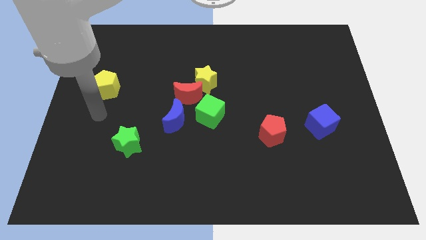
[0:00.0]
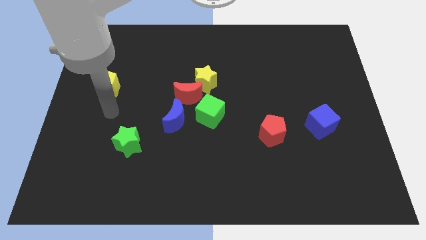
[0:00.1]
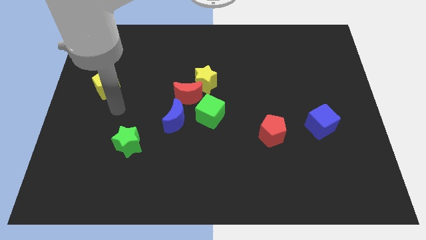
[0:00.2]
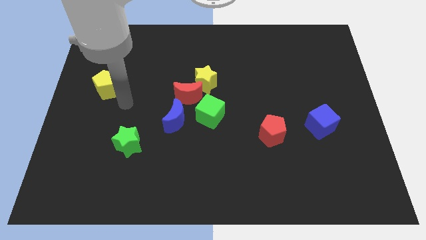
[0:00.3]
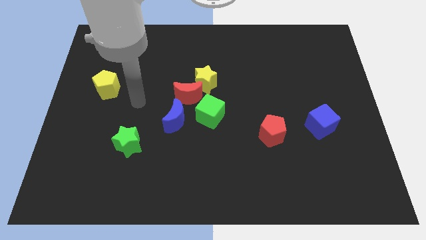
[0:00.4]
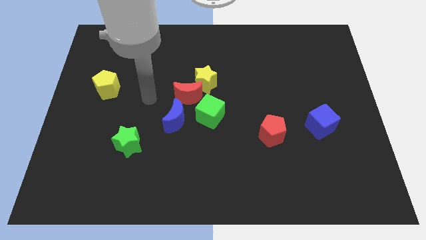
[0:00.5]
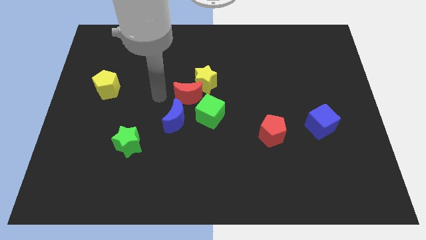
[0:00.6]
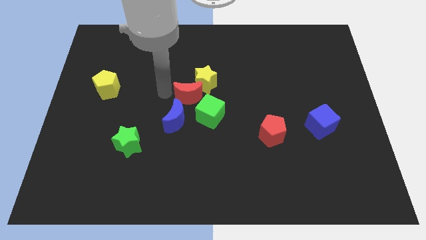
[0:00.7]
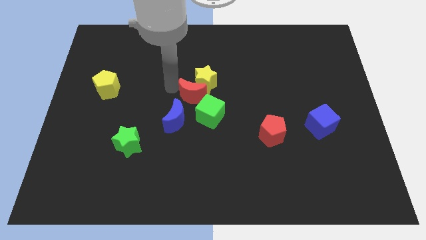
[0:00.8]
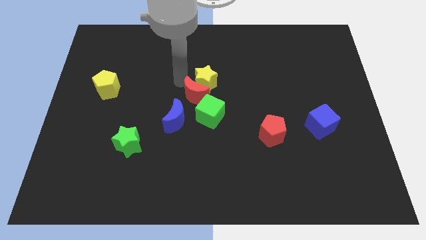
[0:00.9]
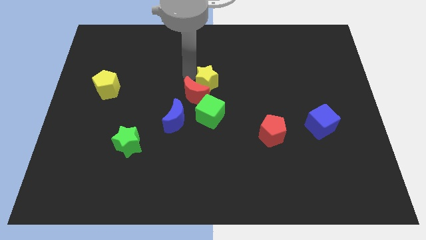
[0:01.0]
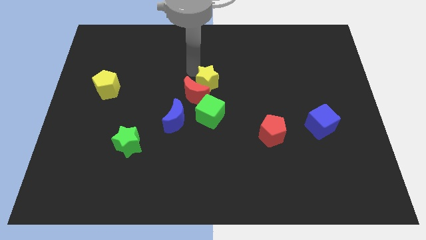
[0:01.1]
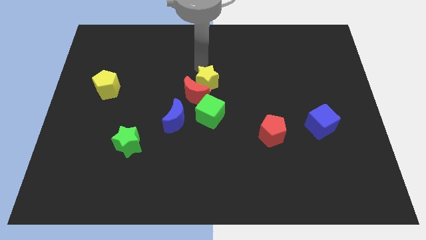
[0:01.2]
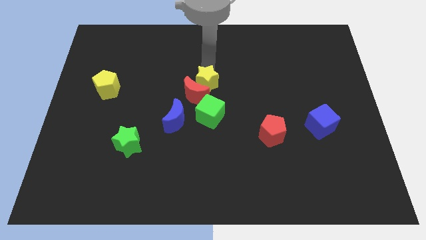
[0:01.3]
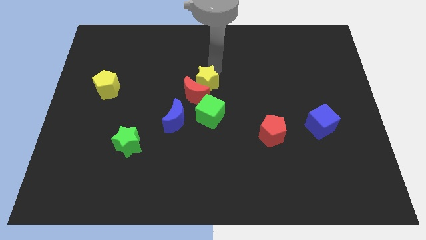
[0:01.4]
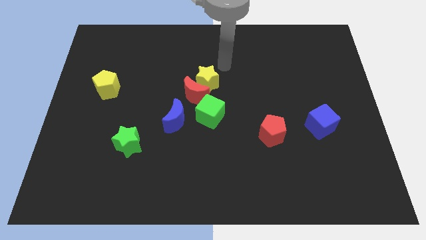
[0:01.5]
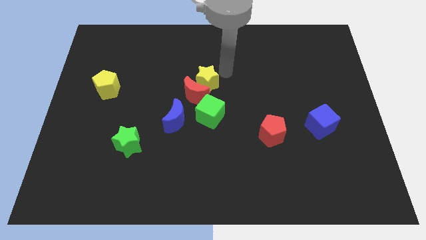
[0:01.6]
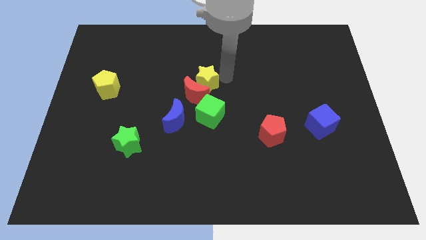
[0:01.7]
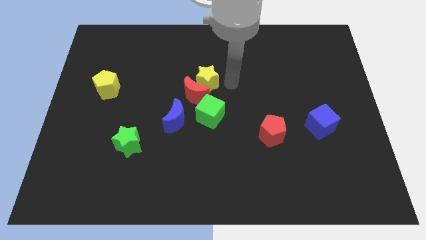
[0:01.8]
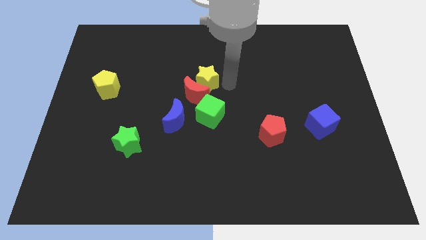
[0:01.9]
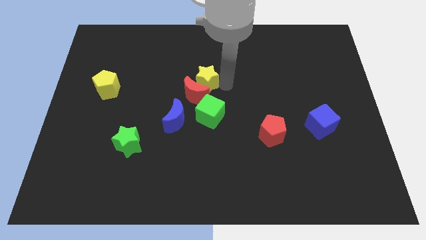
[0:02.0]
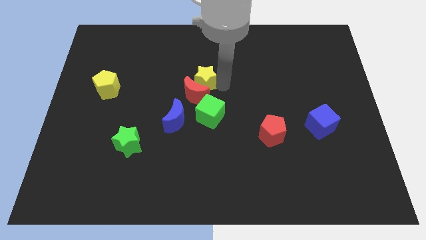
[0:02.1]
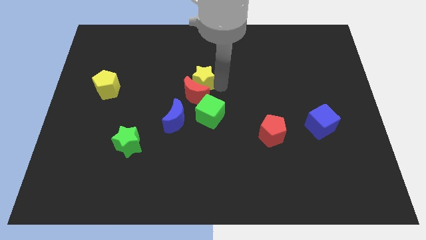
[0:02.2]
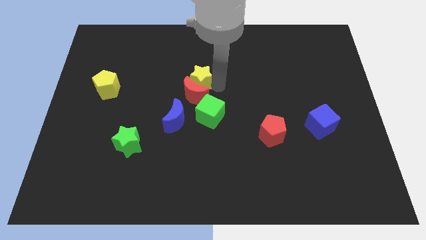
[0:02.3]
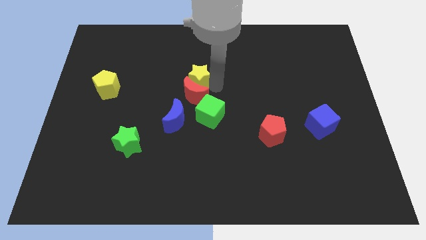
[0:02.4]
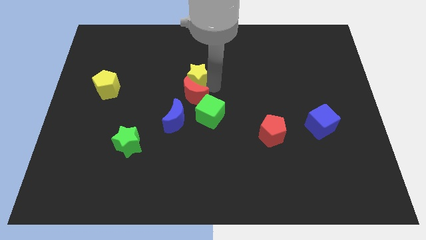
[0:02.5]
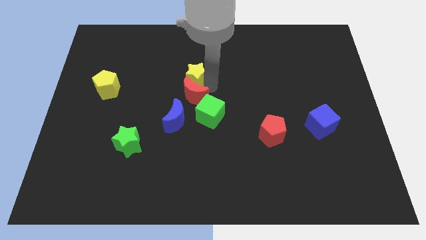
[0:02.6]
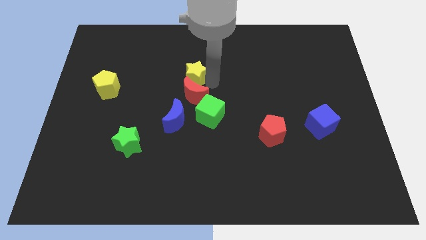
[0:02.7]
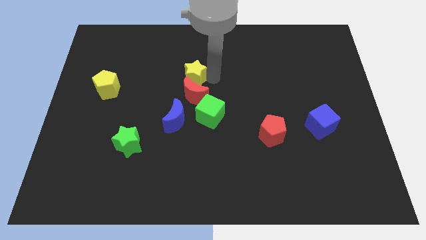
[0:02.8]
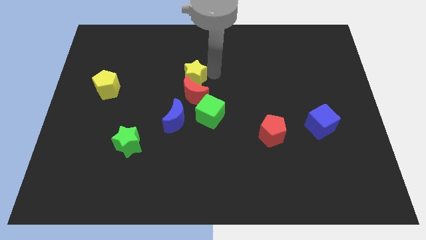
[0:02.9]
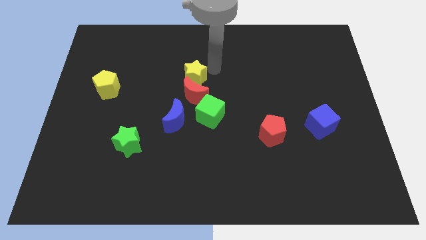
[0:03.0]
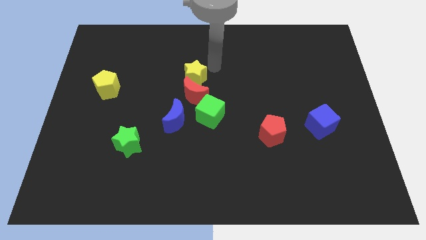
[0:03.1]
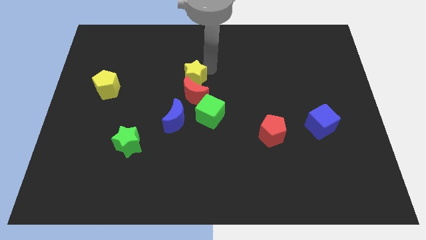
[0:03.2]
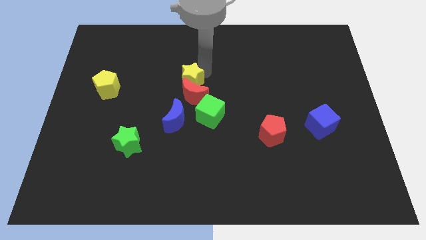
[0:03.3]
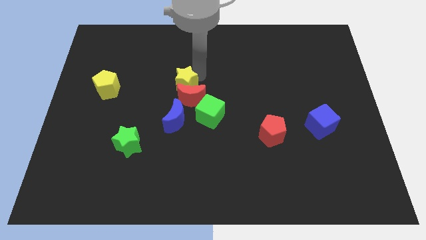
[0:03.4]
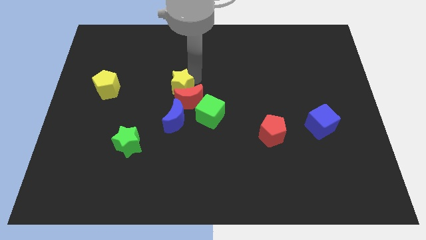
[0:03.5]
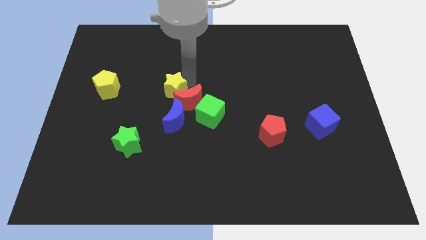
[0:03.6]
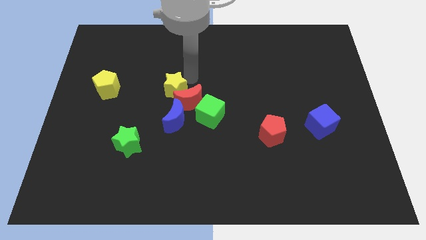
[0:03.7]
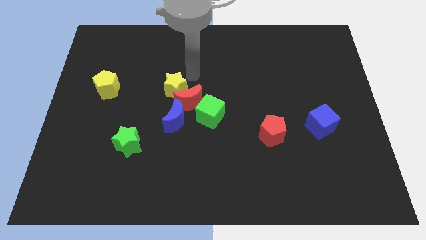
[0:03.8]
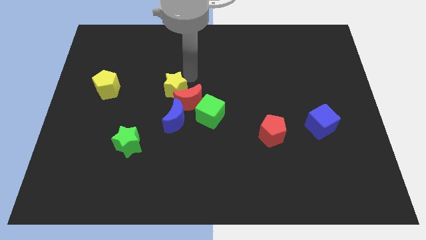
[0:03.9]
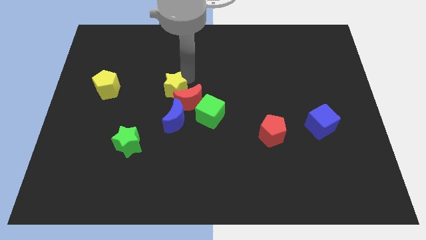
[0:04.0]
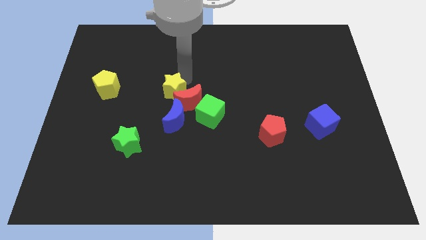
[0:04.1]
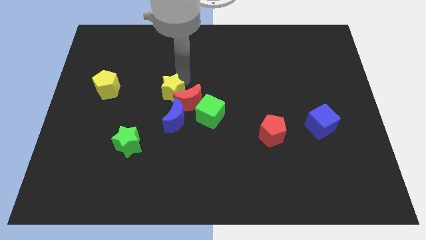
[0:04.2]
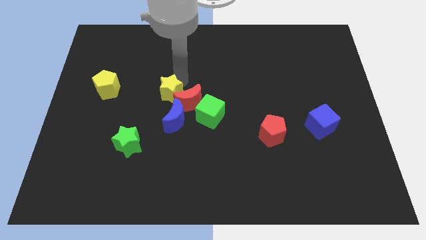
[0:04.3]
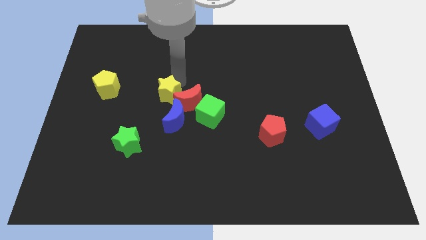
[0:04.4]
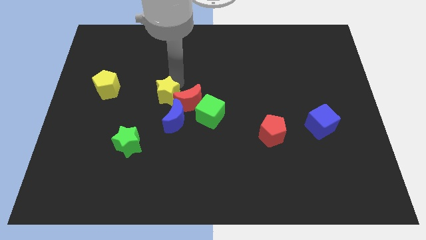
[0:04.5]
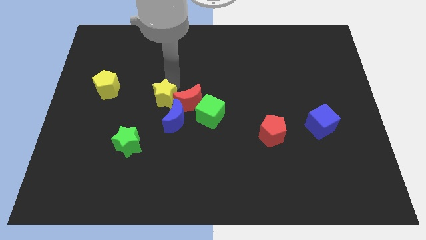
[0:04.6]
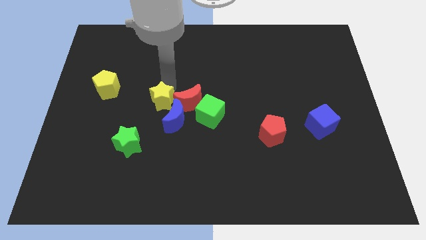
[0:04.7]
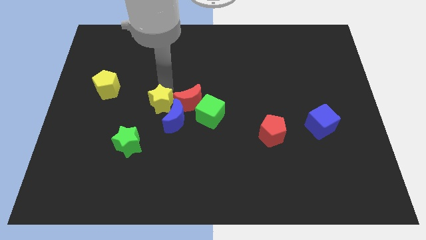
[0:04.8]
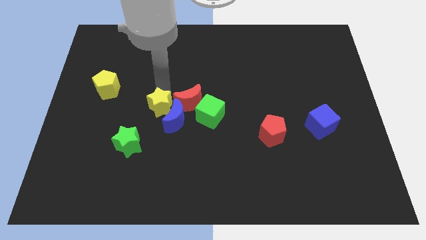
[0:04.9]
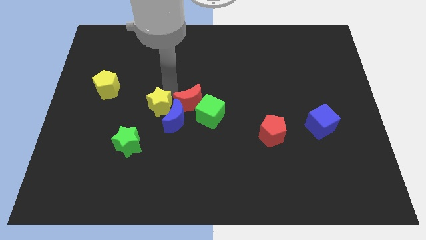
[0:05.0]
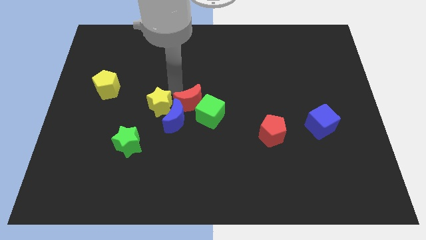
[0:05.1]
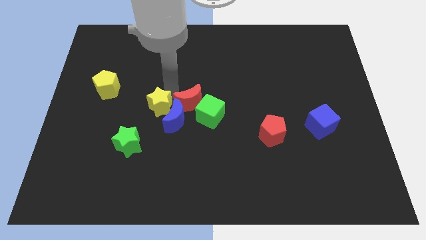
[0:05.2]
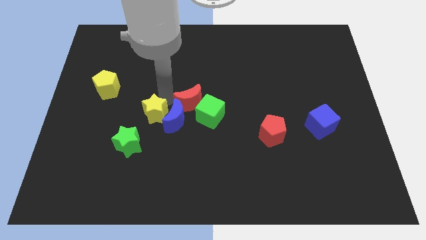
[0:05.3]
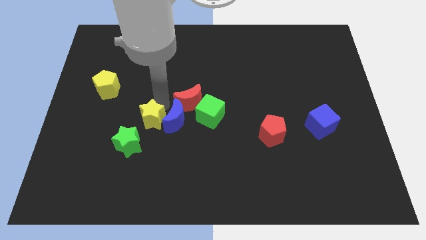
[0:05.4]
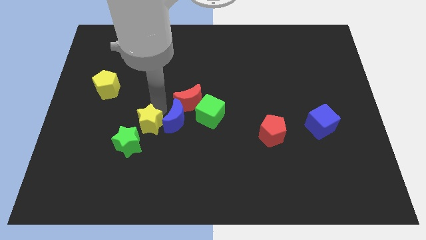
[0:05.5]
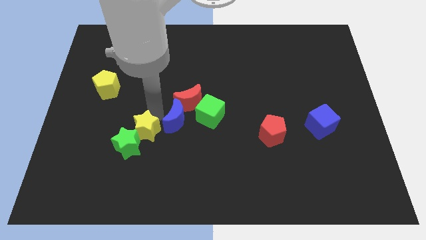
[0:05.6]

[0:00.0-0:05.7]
move the yellow star next to the green star

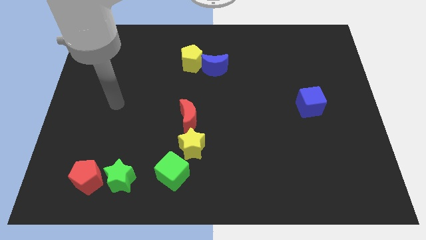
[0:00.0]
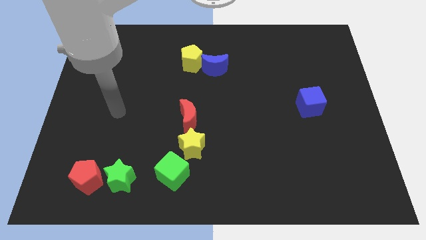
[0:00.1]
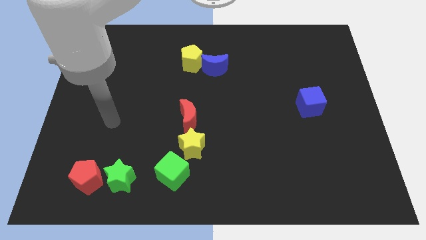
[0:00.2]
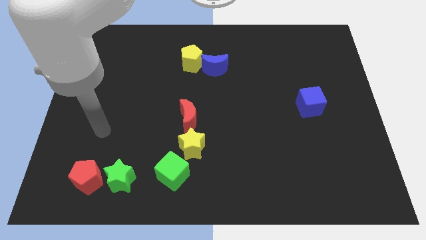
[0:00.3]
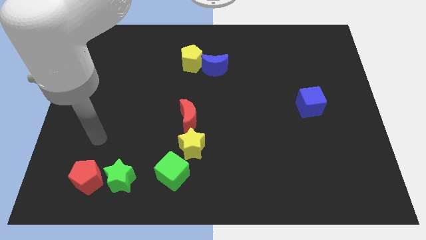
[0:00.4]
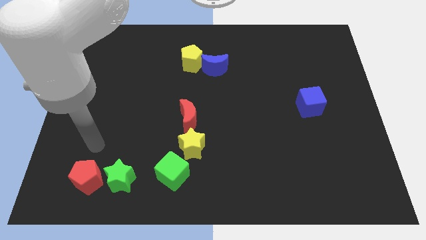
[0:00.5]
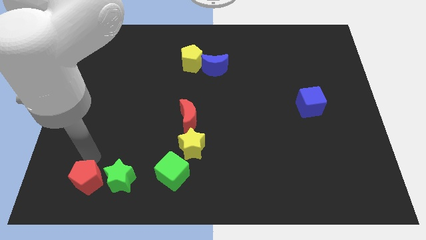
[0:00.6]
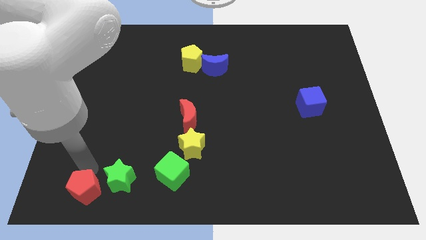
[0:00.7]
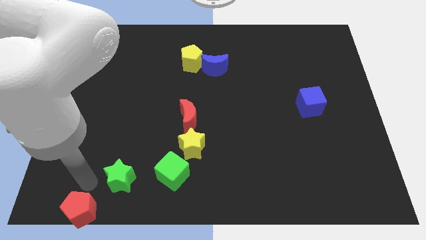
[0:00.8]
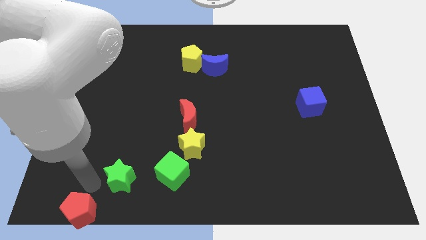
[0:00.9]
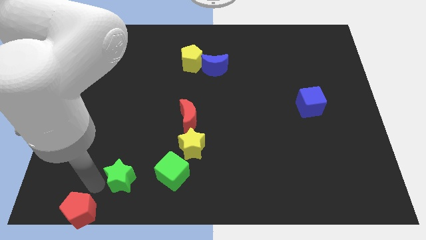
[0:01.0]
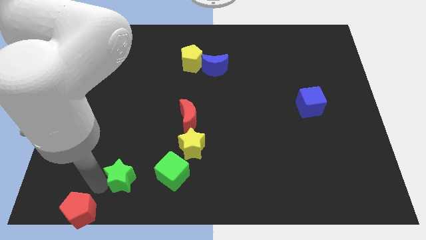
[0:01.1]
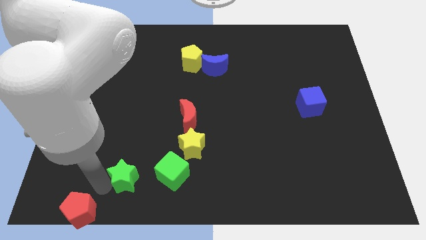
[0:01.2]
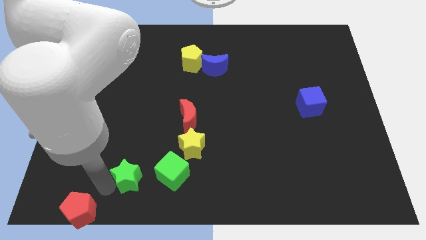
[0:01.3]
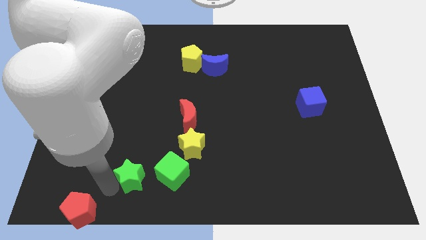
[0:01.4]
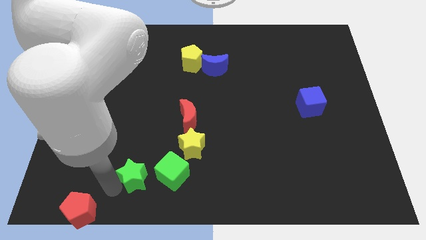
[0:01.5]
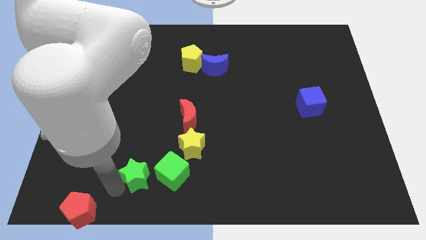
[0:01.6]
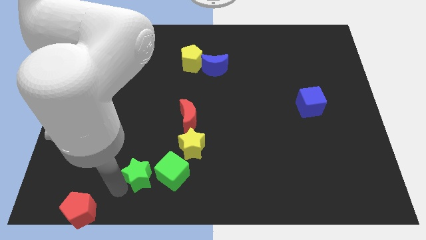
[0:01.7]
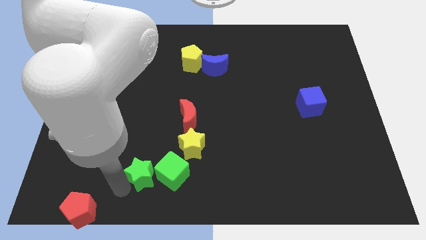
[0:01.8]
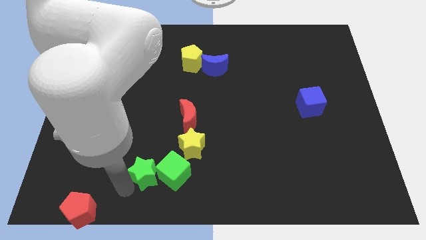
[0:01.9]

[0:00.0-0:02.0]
slide the green star towards the green cube

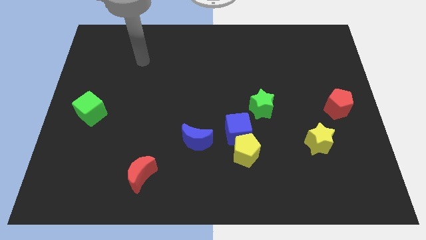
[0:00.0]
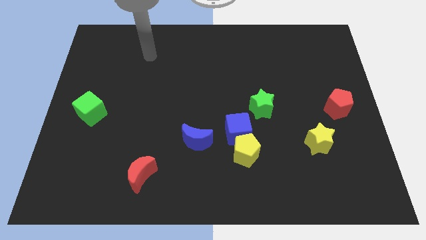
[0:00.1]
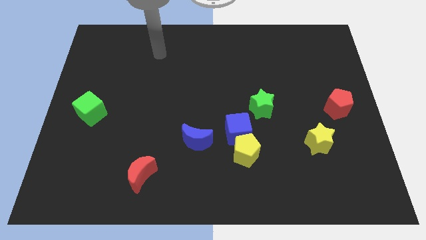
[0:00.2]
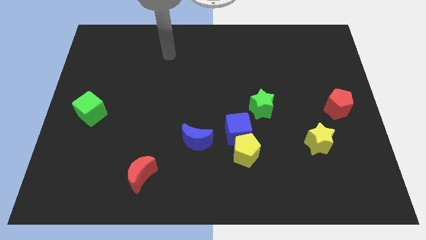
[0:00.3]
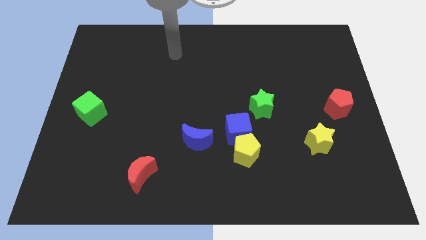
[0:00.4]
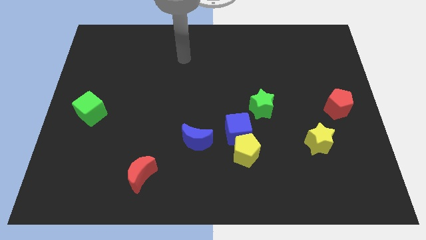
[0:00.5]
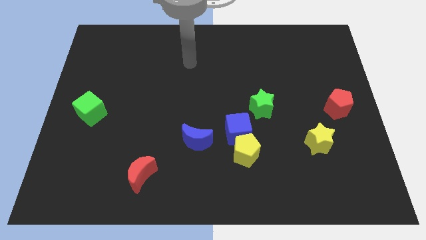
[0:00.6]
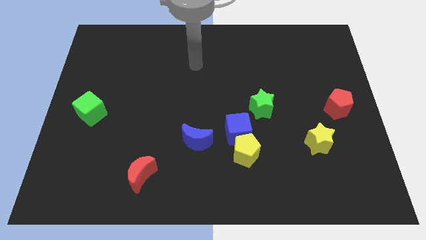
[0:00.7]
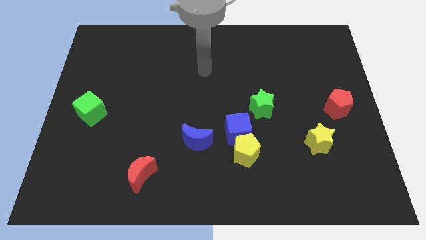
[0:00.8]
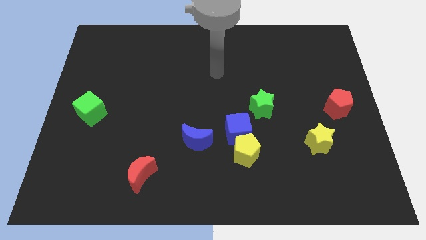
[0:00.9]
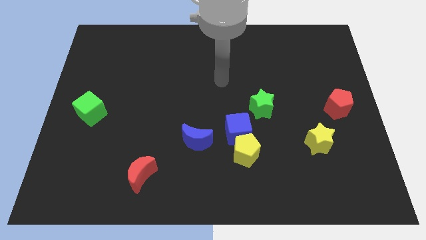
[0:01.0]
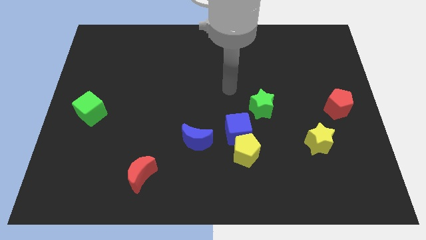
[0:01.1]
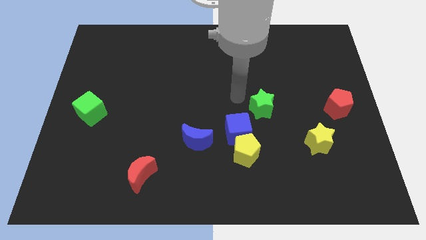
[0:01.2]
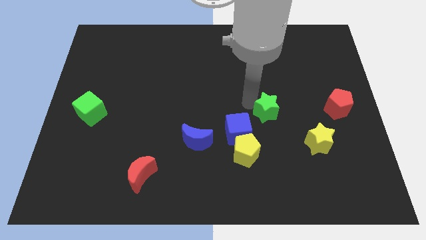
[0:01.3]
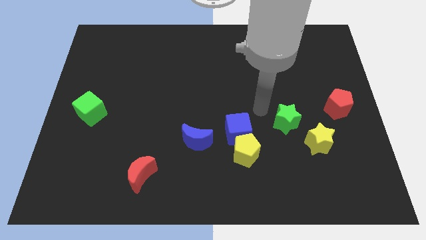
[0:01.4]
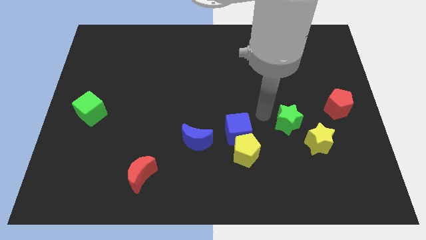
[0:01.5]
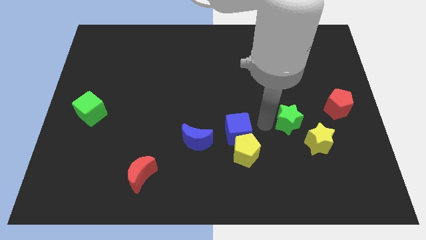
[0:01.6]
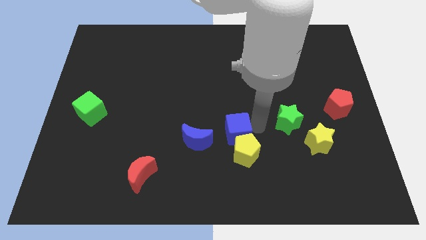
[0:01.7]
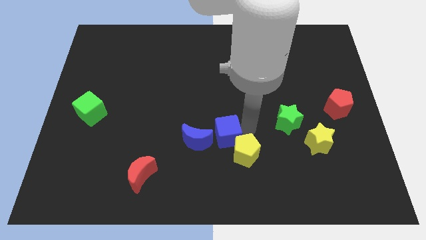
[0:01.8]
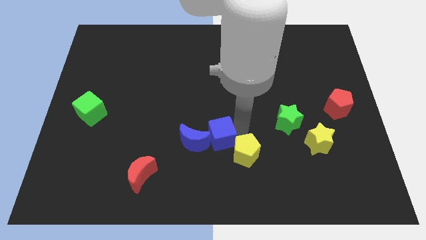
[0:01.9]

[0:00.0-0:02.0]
slide the blue cube next to the blue moon
